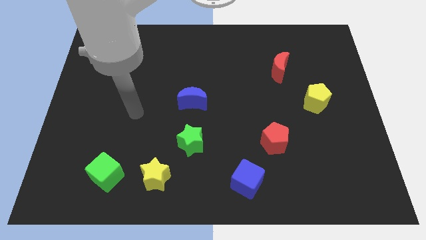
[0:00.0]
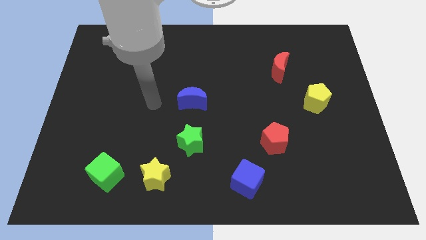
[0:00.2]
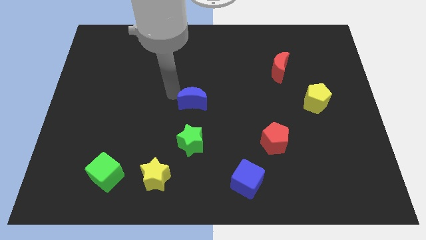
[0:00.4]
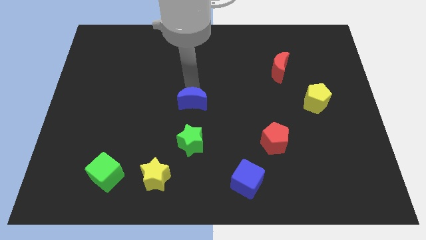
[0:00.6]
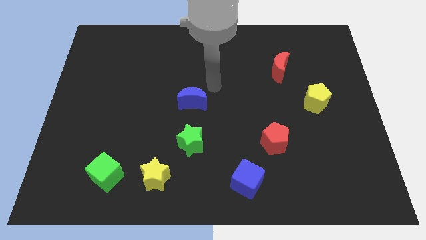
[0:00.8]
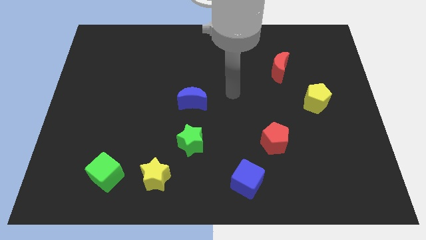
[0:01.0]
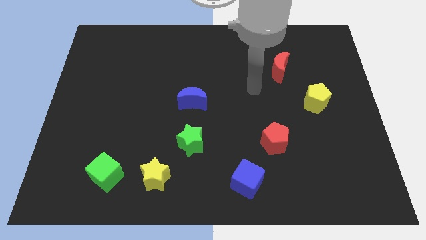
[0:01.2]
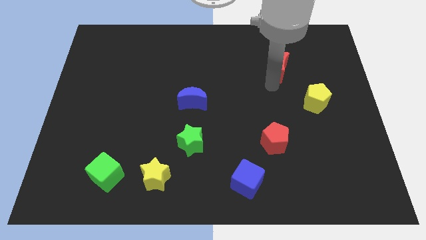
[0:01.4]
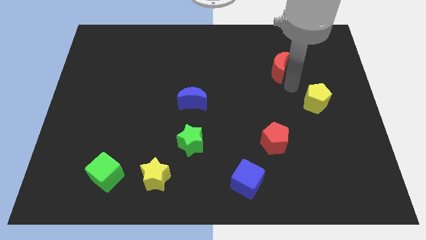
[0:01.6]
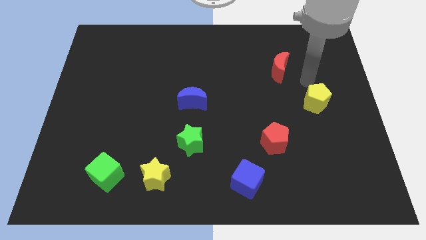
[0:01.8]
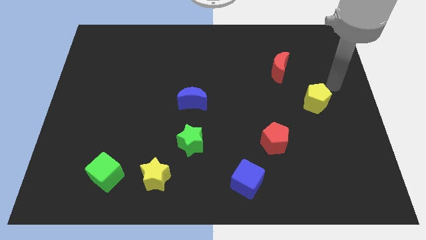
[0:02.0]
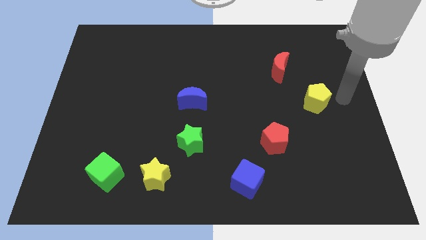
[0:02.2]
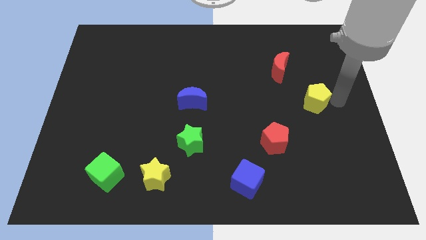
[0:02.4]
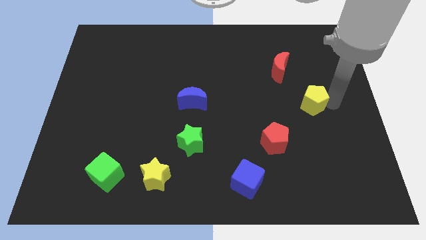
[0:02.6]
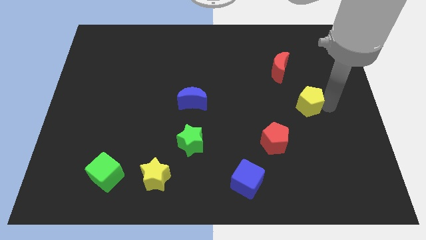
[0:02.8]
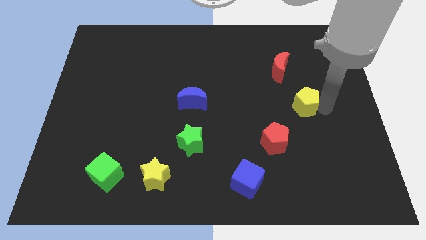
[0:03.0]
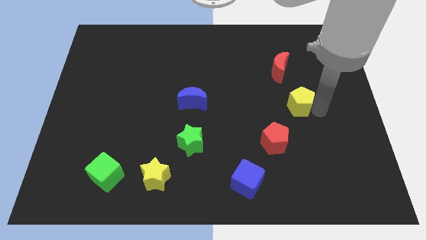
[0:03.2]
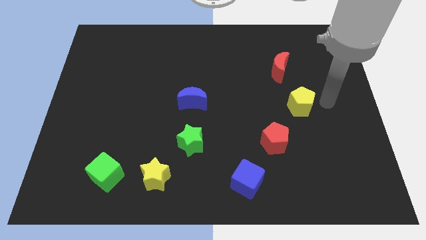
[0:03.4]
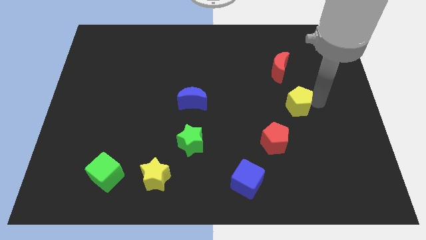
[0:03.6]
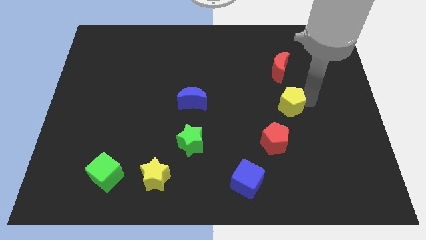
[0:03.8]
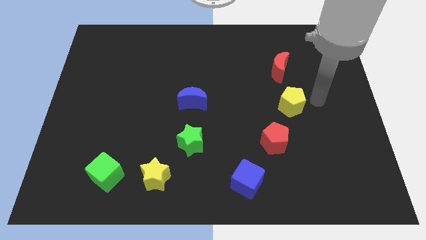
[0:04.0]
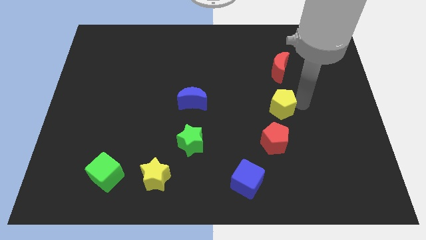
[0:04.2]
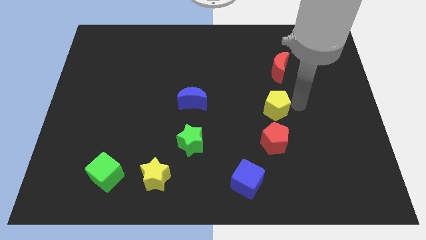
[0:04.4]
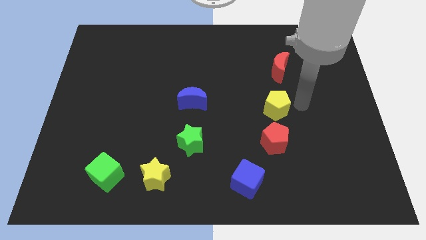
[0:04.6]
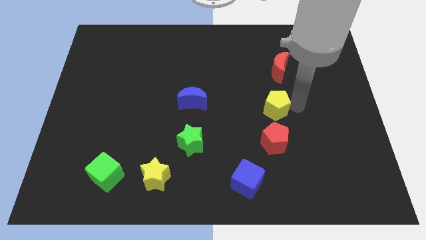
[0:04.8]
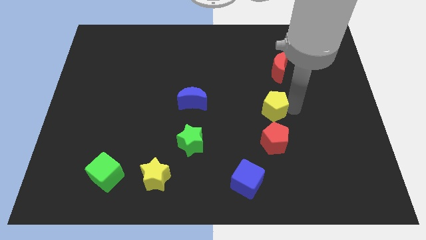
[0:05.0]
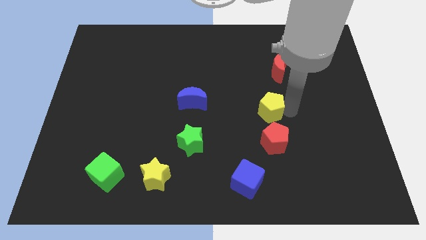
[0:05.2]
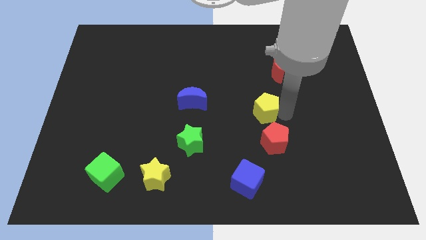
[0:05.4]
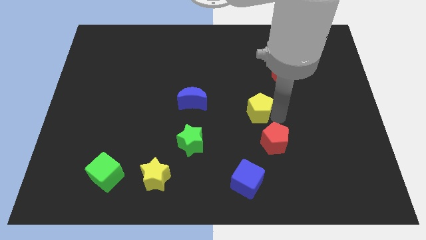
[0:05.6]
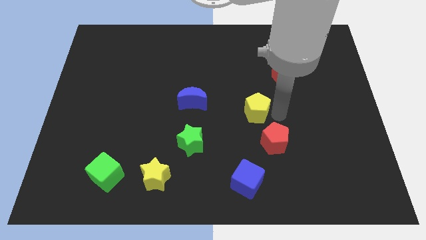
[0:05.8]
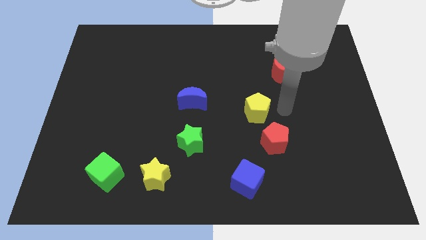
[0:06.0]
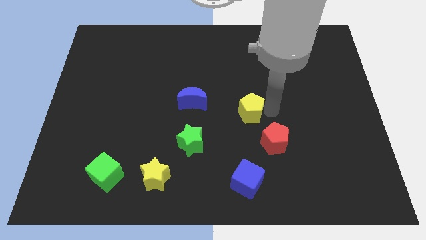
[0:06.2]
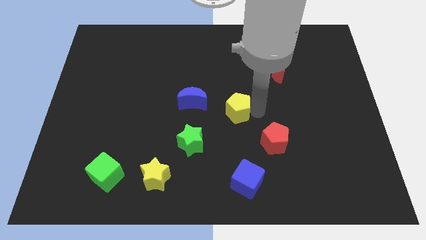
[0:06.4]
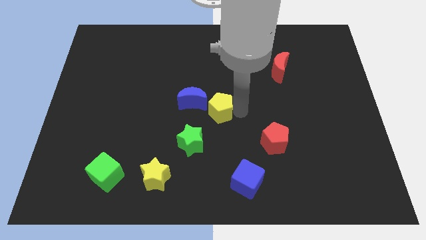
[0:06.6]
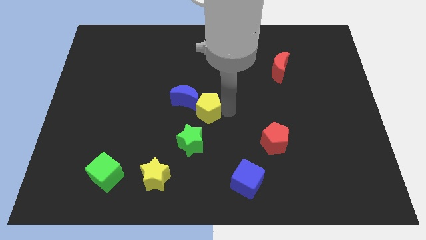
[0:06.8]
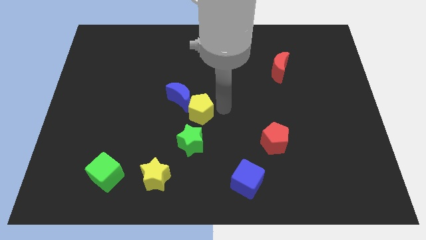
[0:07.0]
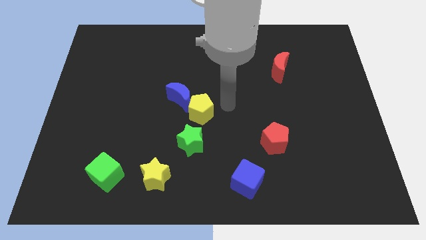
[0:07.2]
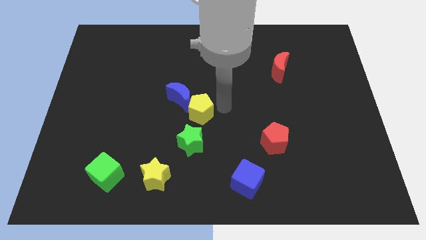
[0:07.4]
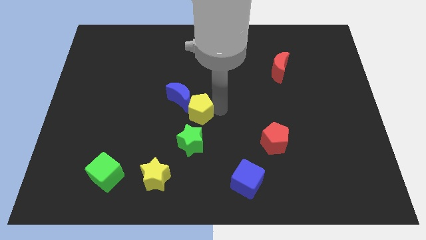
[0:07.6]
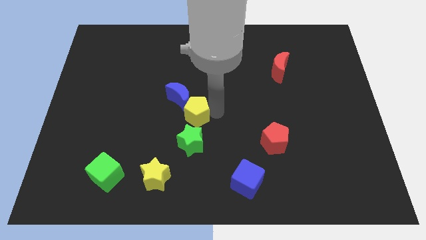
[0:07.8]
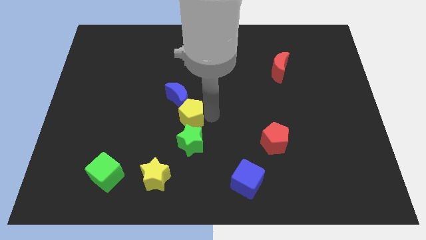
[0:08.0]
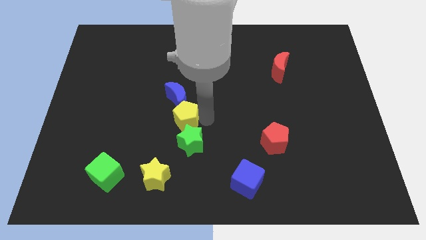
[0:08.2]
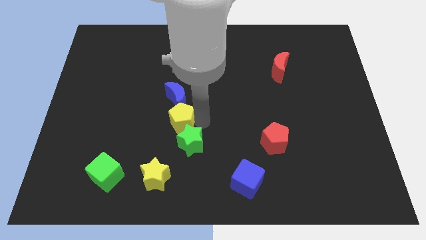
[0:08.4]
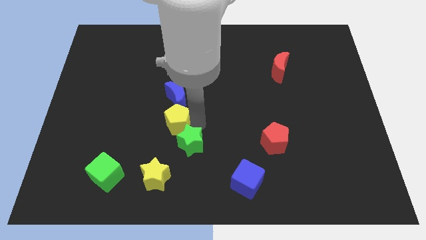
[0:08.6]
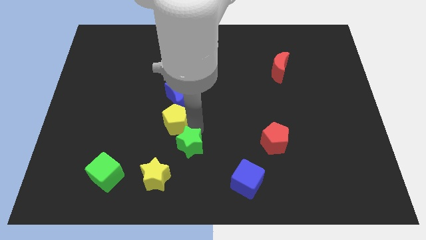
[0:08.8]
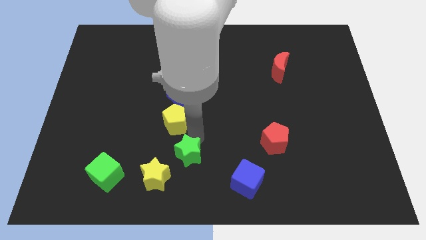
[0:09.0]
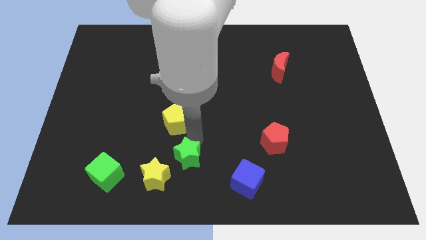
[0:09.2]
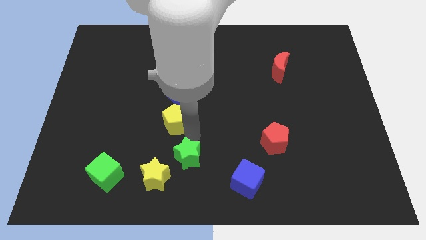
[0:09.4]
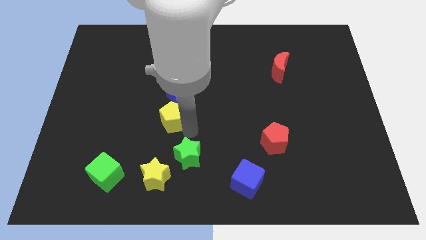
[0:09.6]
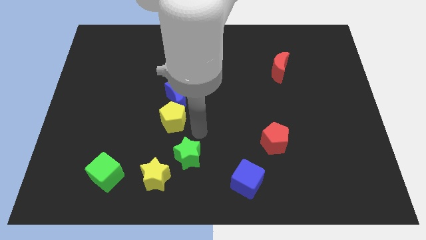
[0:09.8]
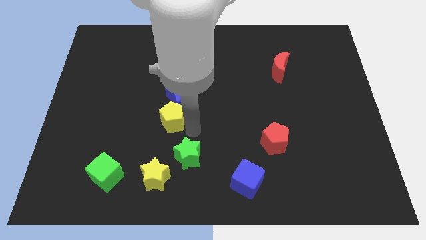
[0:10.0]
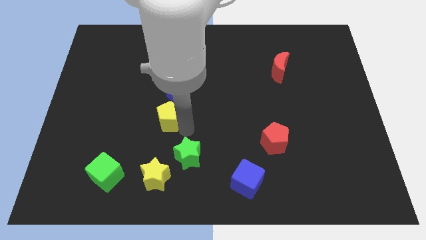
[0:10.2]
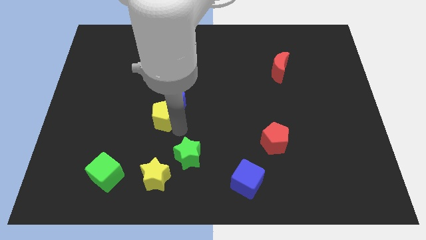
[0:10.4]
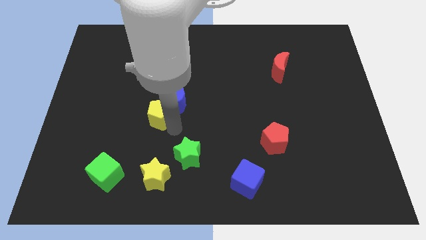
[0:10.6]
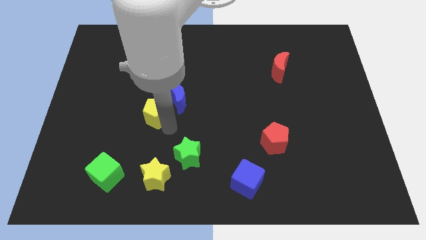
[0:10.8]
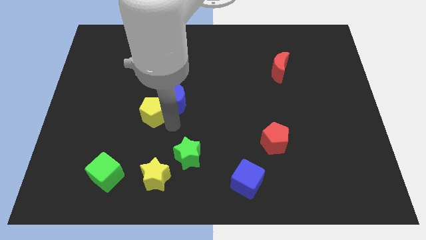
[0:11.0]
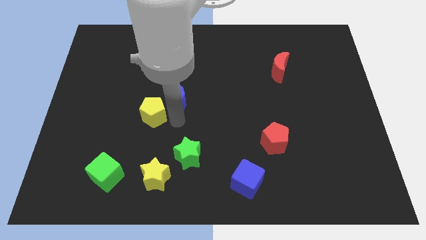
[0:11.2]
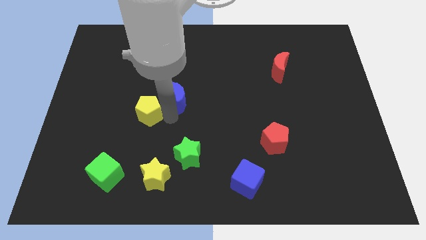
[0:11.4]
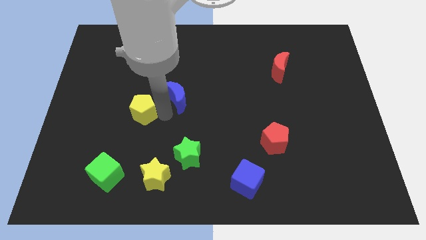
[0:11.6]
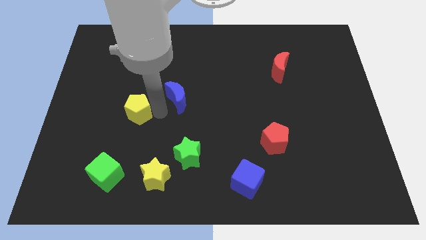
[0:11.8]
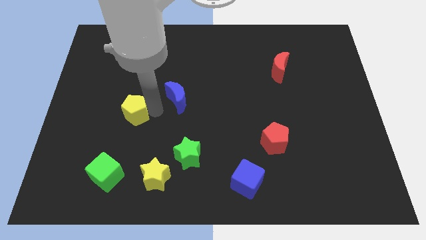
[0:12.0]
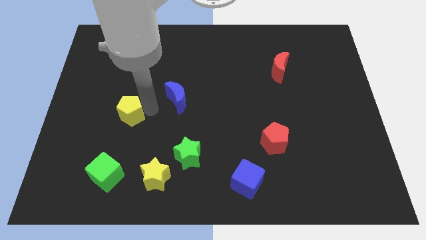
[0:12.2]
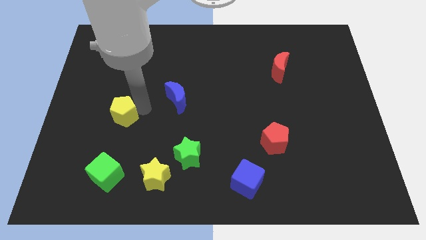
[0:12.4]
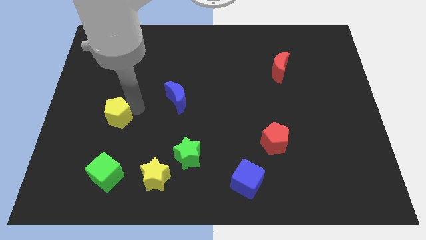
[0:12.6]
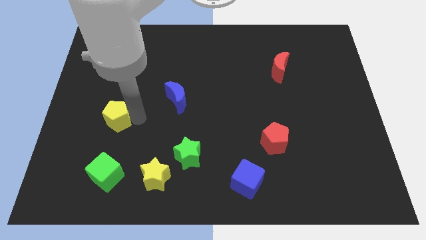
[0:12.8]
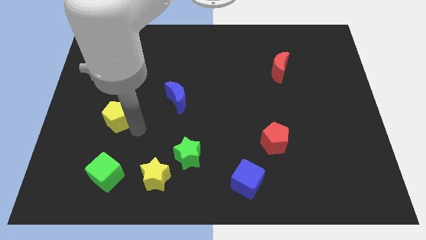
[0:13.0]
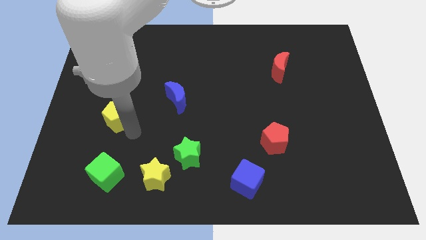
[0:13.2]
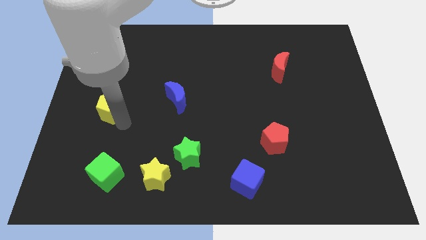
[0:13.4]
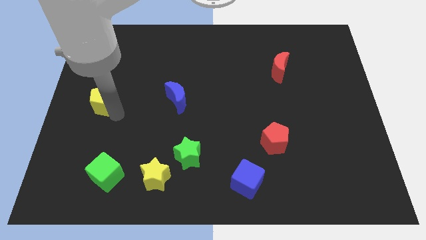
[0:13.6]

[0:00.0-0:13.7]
move the yellow pentagon to the left side
